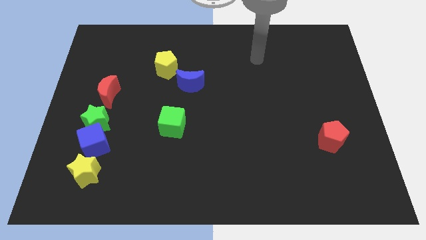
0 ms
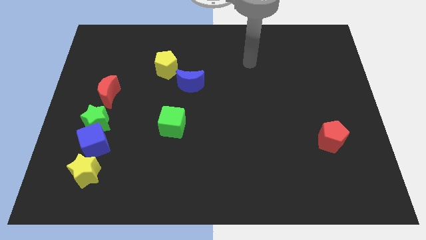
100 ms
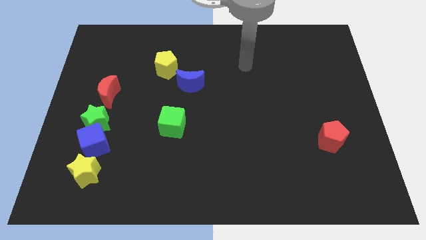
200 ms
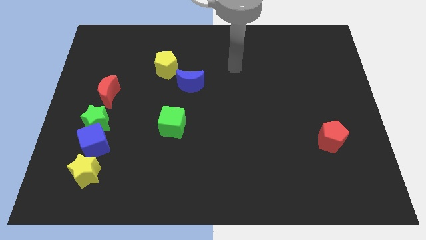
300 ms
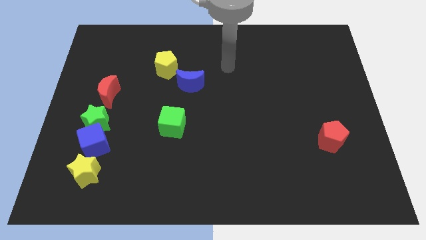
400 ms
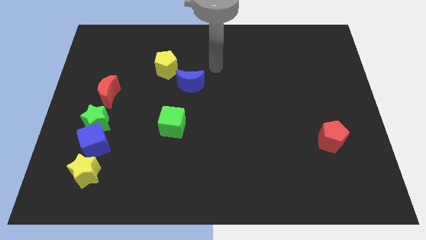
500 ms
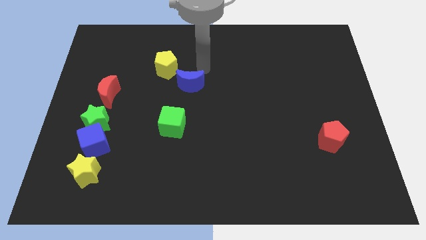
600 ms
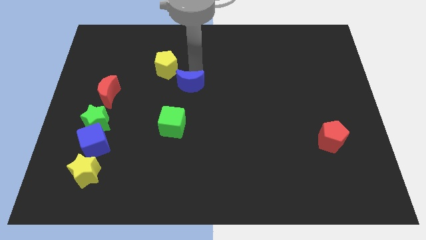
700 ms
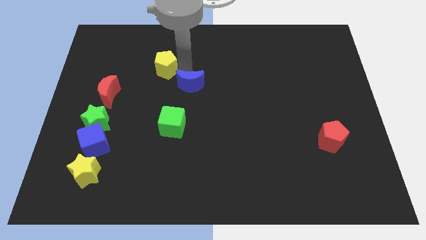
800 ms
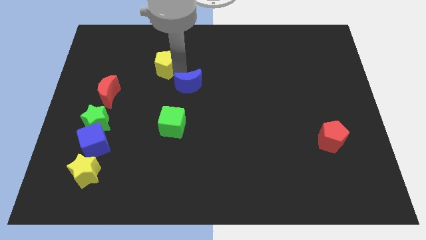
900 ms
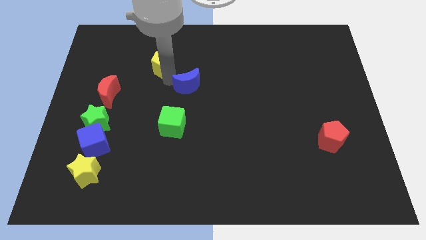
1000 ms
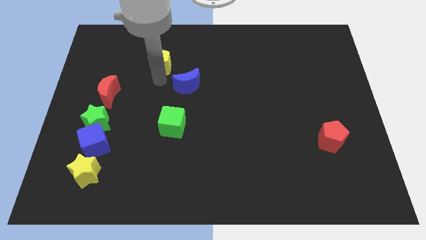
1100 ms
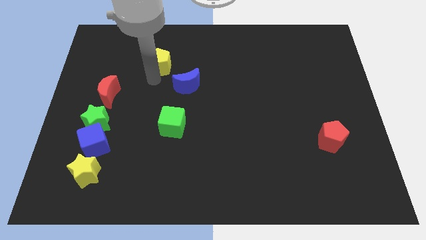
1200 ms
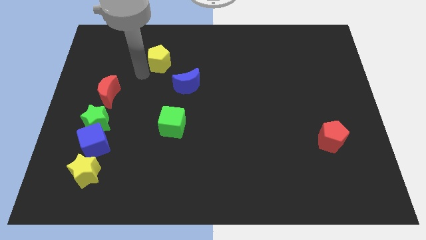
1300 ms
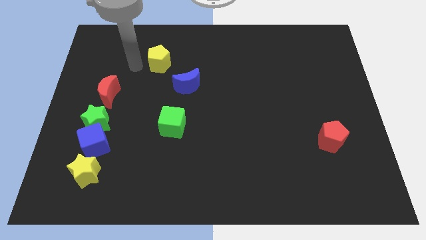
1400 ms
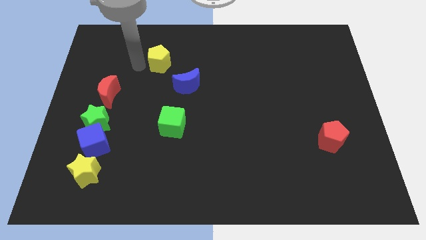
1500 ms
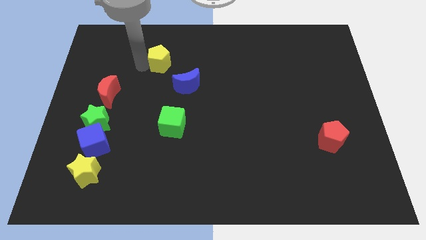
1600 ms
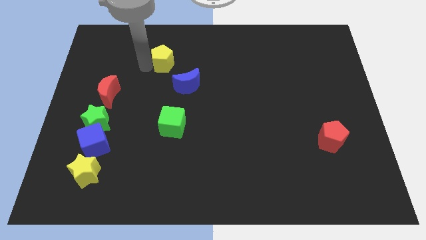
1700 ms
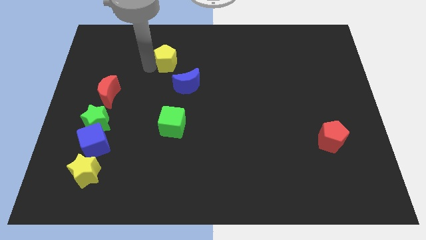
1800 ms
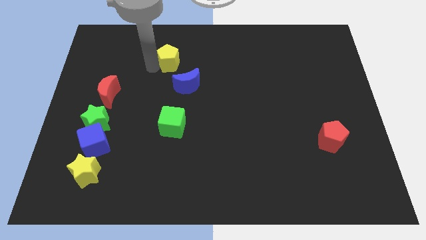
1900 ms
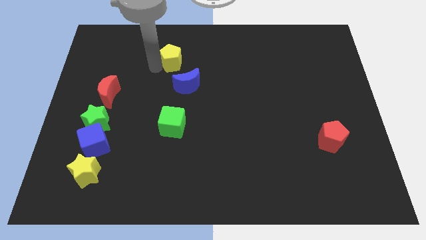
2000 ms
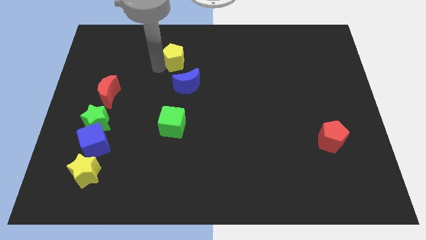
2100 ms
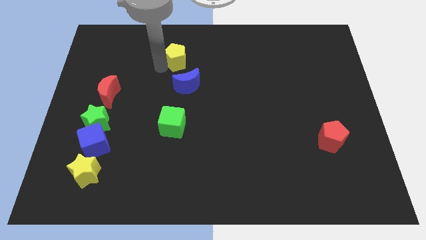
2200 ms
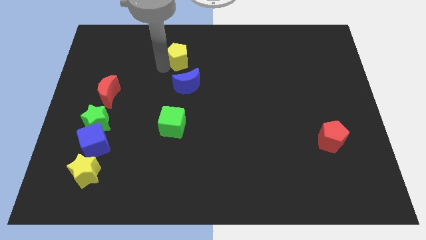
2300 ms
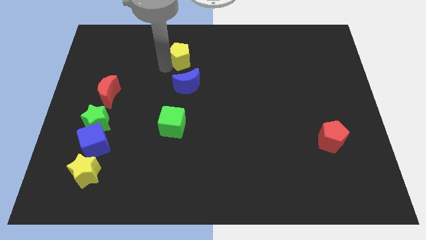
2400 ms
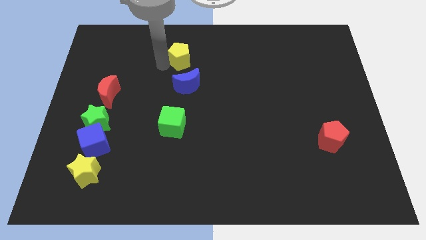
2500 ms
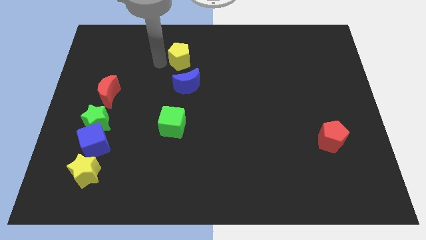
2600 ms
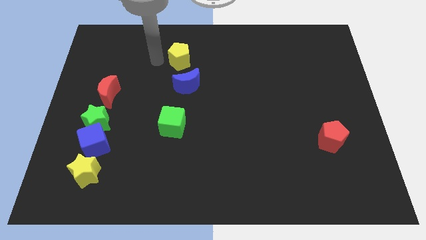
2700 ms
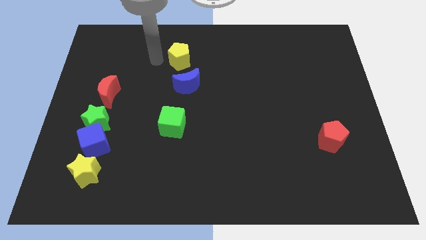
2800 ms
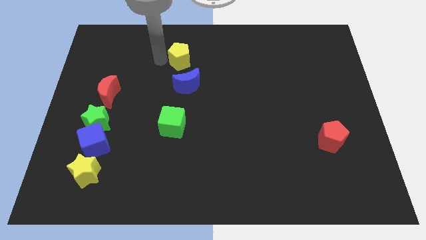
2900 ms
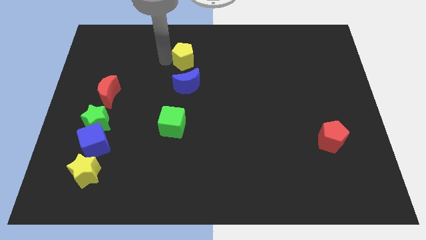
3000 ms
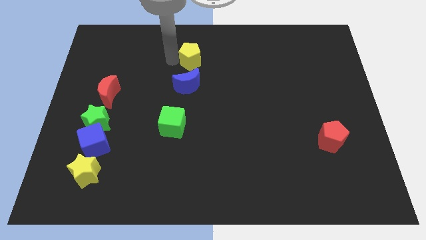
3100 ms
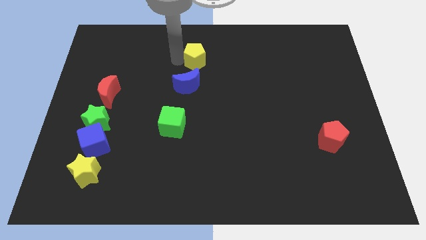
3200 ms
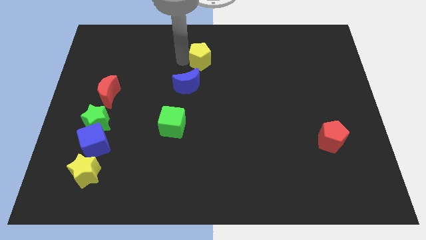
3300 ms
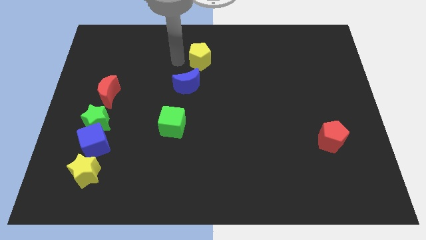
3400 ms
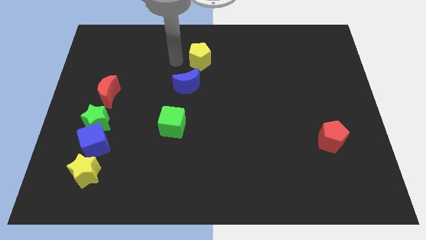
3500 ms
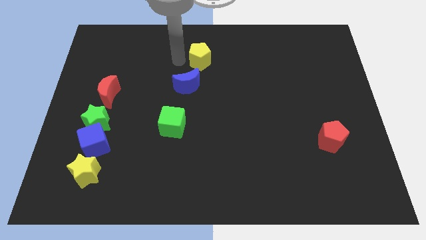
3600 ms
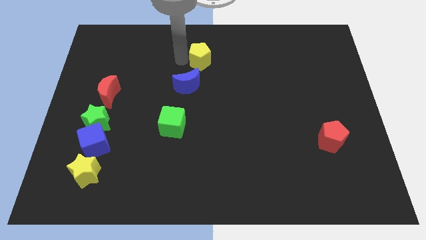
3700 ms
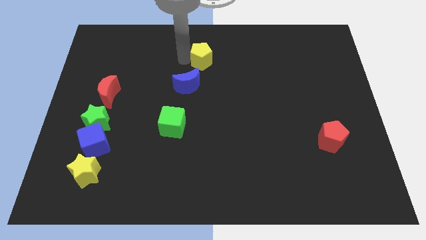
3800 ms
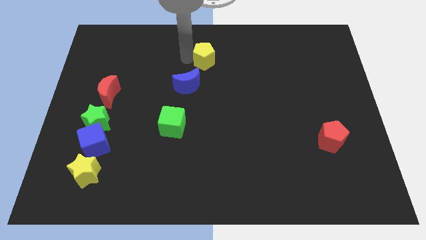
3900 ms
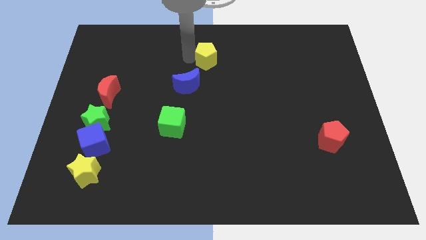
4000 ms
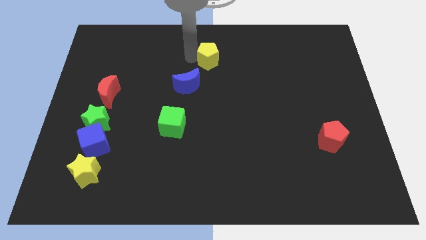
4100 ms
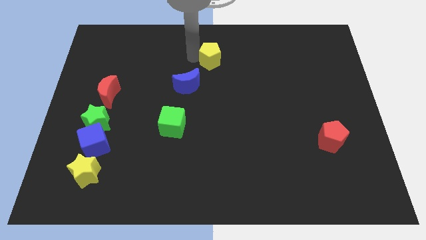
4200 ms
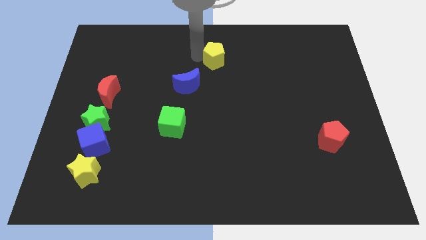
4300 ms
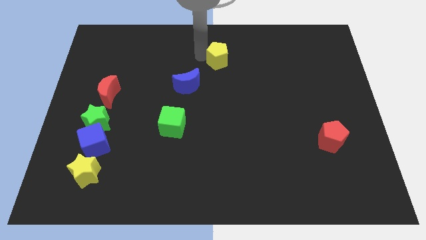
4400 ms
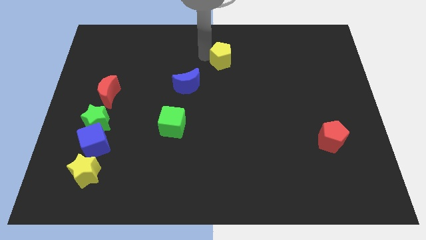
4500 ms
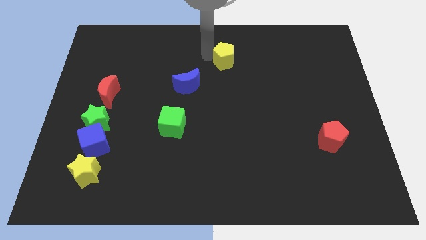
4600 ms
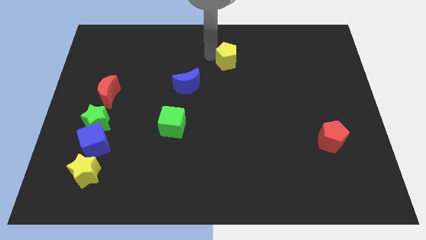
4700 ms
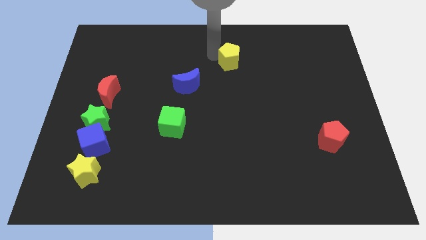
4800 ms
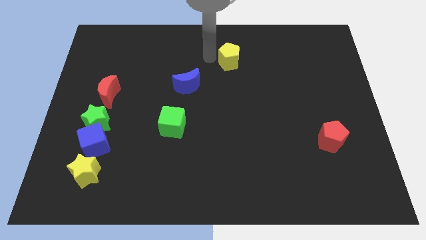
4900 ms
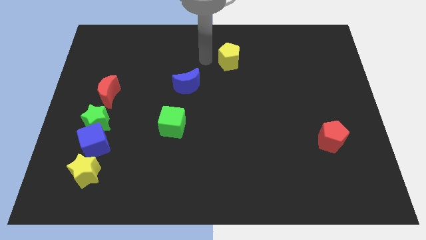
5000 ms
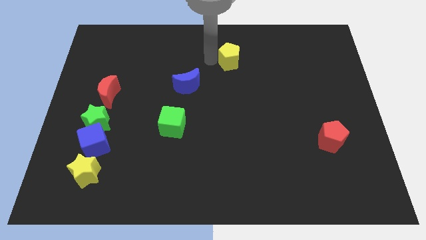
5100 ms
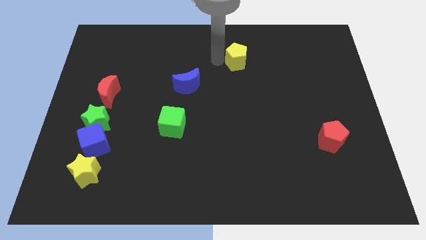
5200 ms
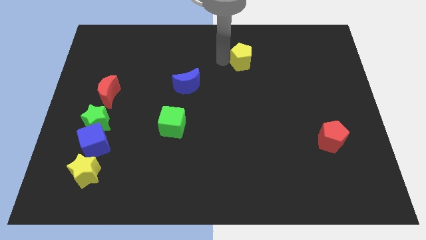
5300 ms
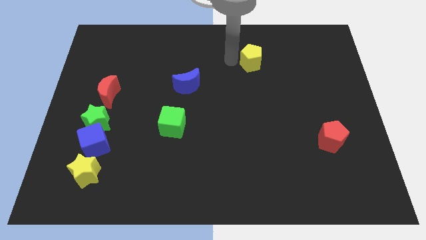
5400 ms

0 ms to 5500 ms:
move the yellow pentagon to the right

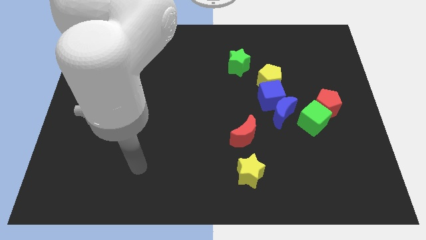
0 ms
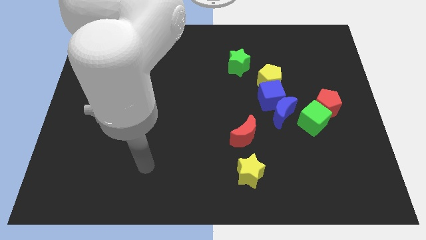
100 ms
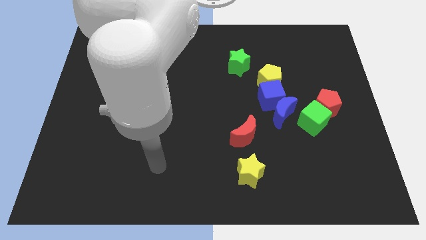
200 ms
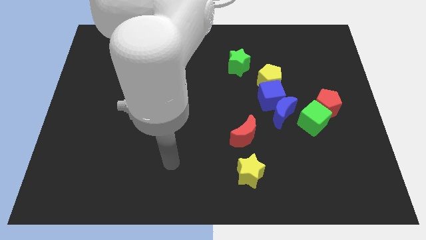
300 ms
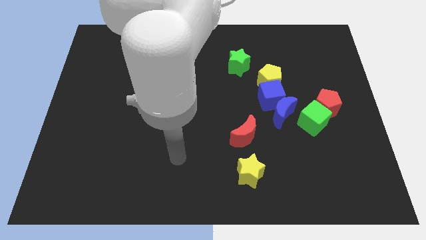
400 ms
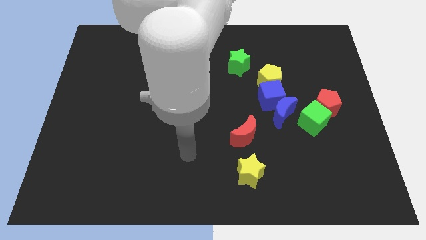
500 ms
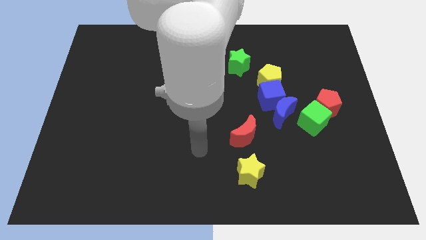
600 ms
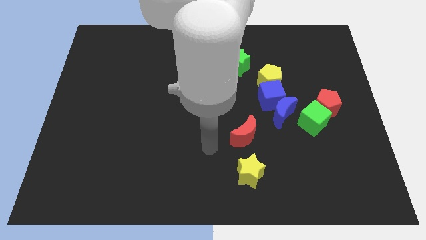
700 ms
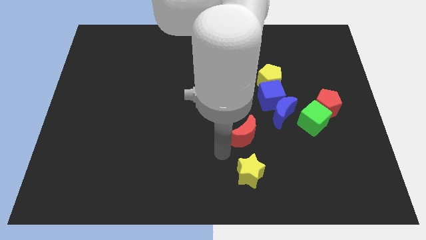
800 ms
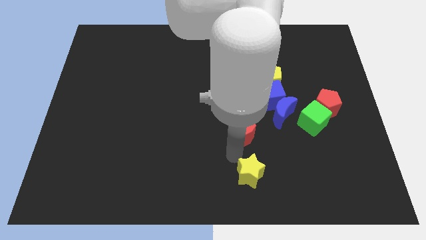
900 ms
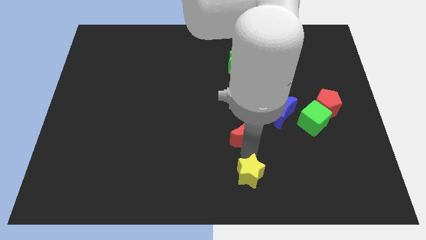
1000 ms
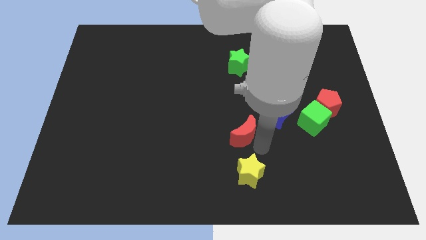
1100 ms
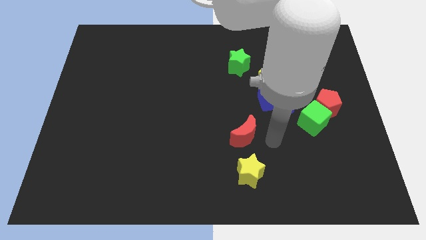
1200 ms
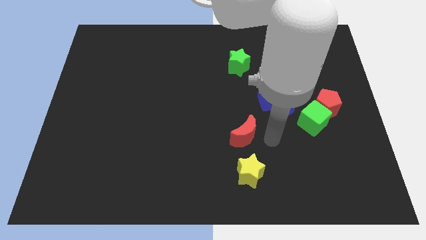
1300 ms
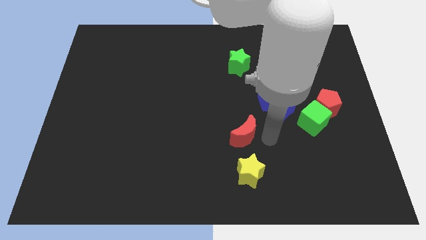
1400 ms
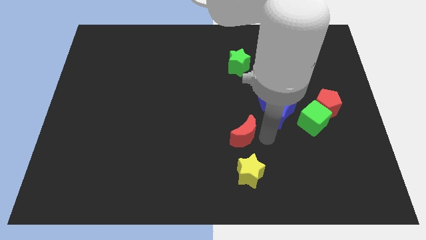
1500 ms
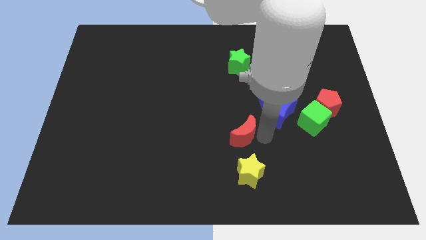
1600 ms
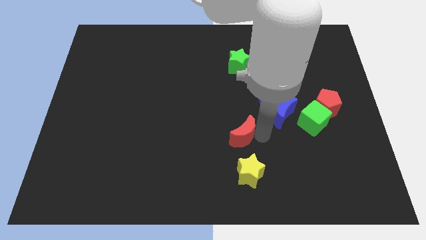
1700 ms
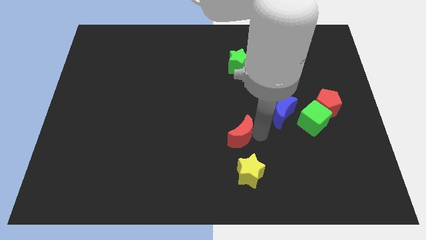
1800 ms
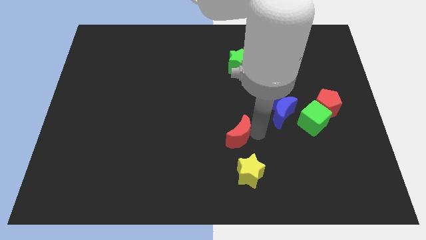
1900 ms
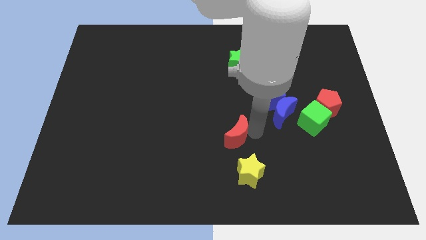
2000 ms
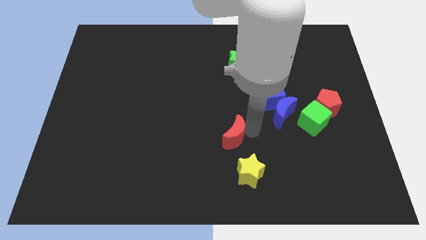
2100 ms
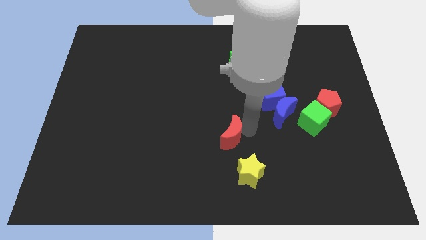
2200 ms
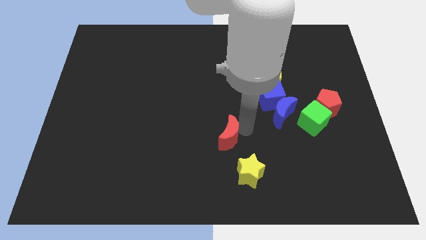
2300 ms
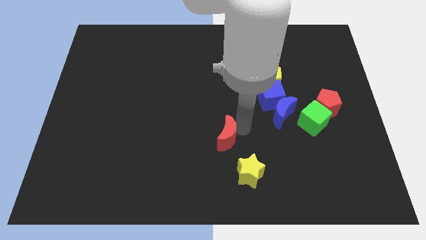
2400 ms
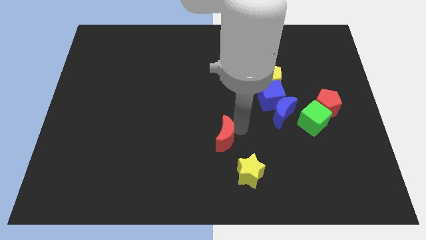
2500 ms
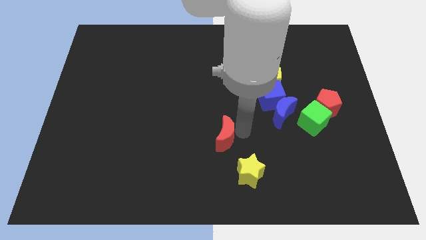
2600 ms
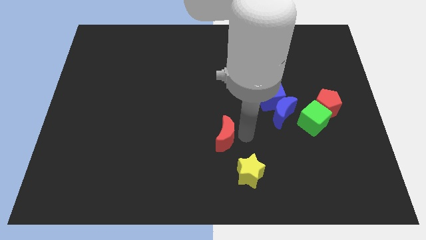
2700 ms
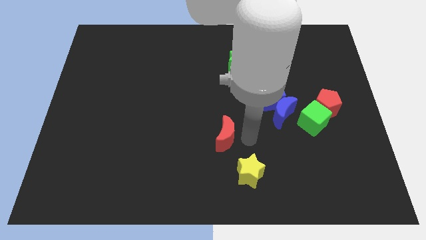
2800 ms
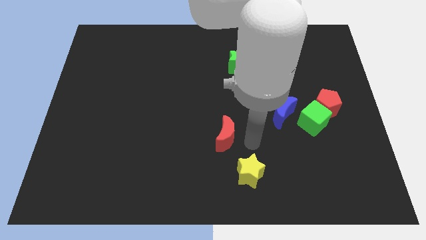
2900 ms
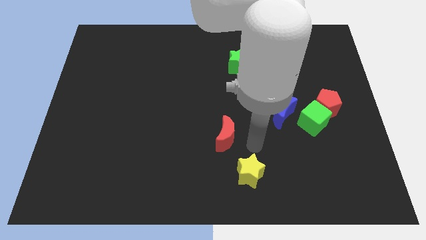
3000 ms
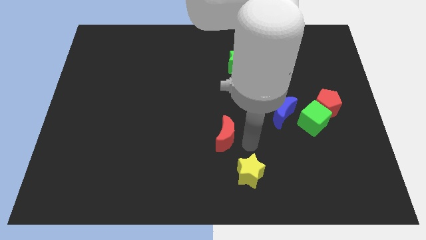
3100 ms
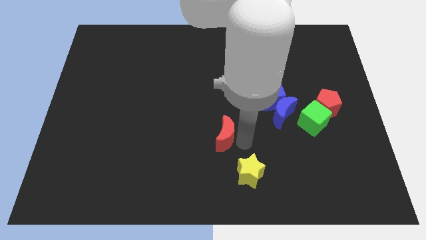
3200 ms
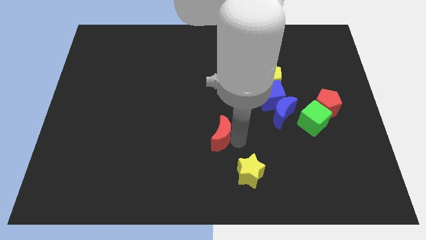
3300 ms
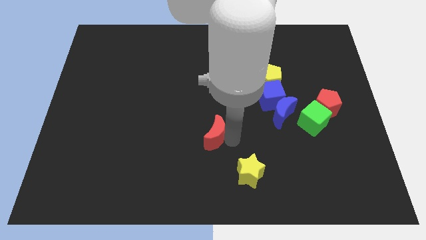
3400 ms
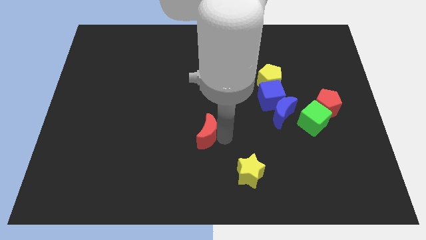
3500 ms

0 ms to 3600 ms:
move the red moon a little to the left
